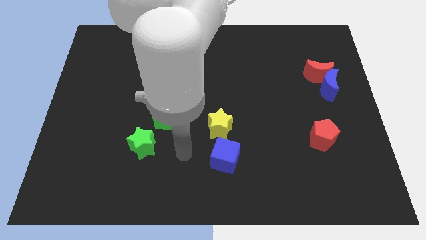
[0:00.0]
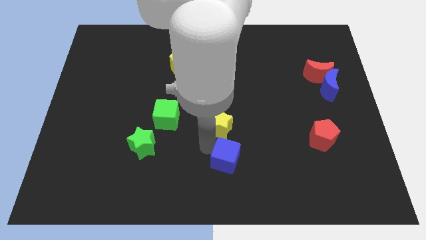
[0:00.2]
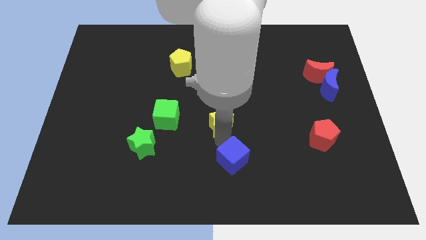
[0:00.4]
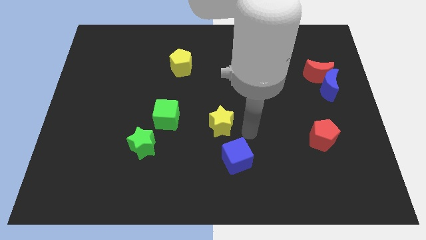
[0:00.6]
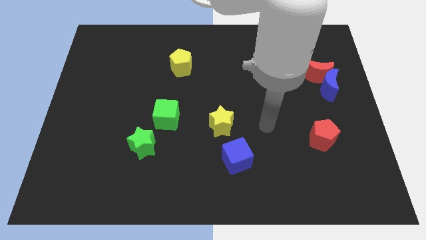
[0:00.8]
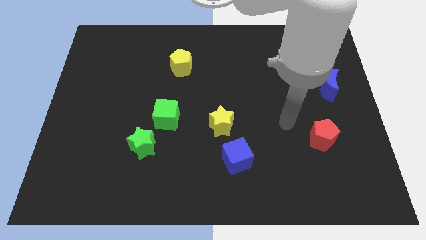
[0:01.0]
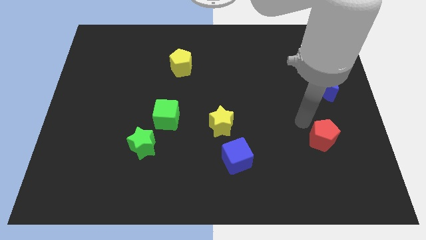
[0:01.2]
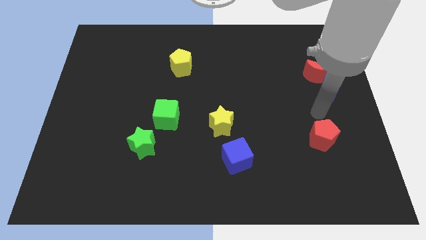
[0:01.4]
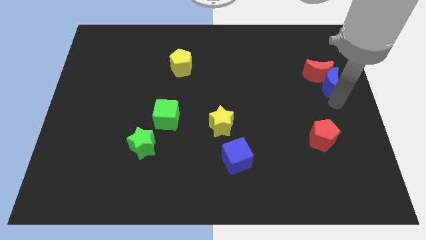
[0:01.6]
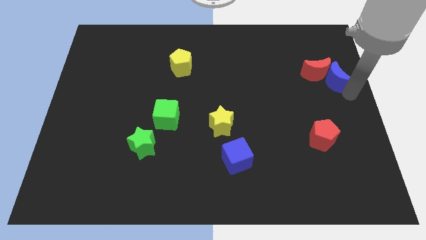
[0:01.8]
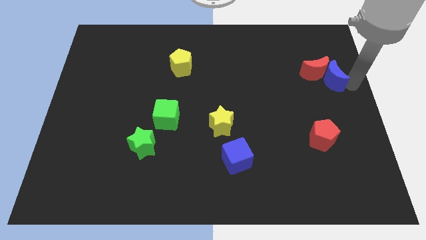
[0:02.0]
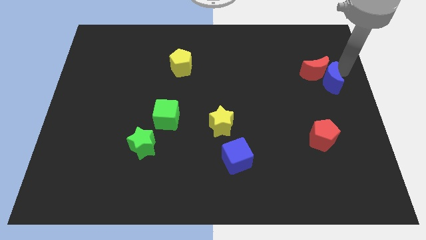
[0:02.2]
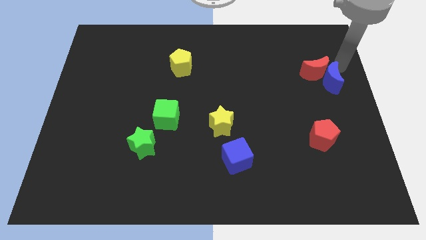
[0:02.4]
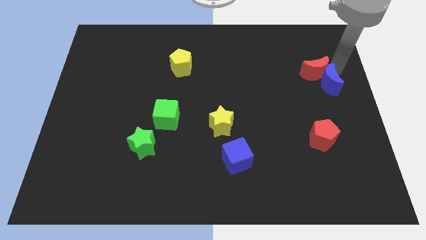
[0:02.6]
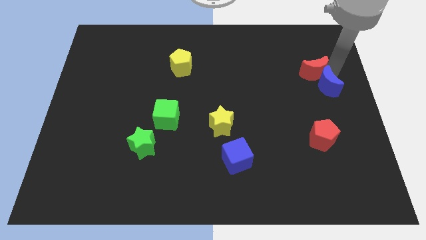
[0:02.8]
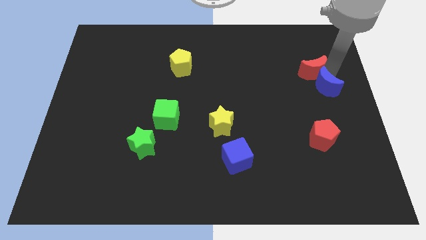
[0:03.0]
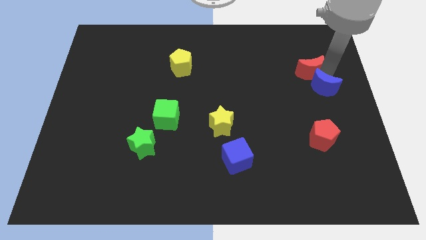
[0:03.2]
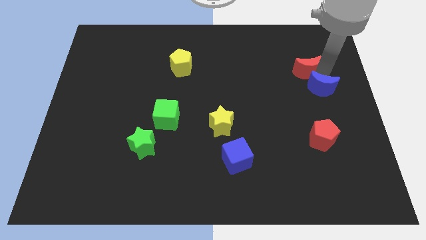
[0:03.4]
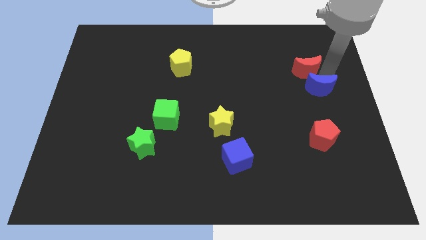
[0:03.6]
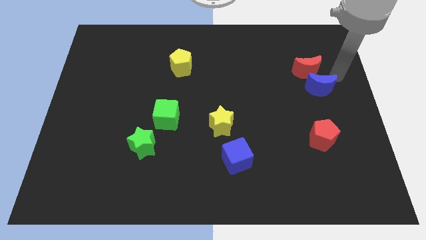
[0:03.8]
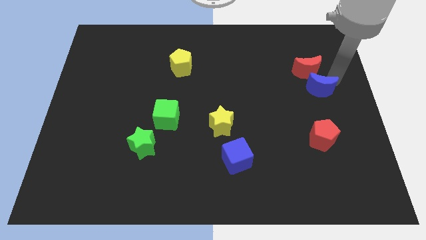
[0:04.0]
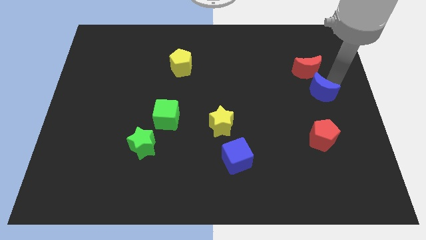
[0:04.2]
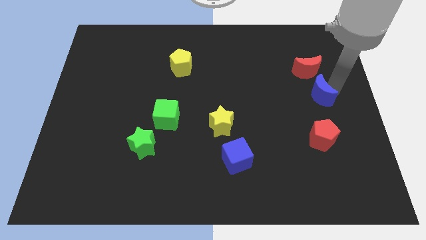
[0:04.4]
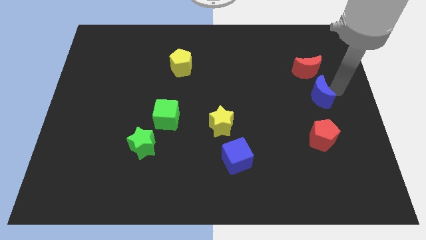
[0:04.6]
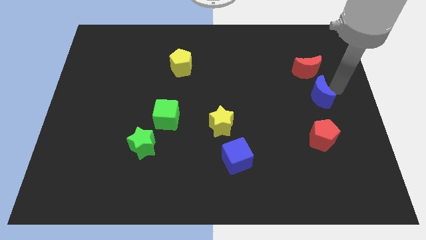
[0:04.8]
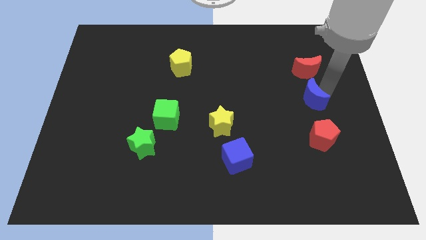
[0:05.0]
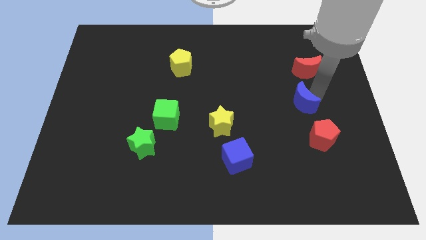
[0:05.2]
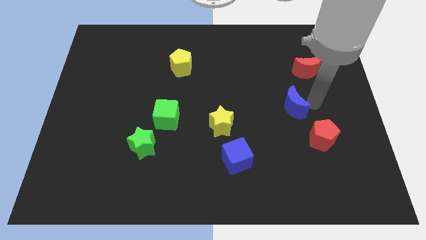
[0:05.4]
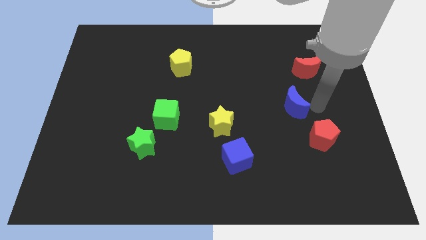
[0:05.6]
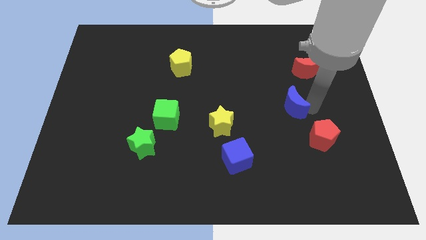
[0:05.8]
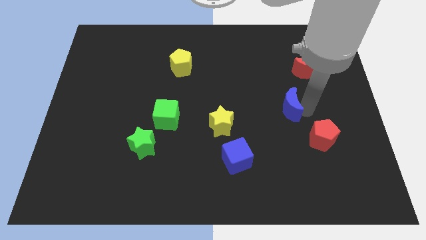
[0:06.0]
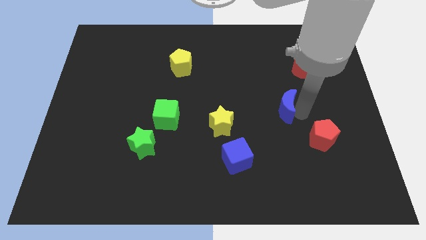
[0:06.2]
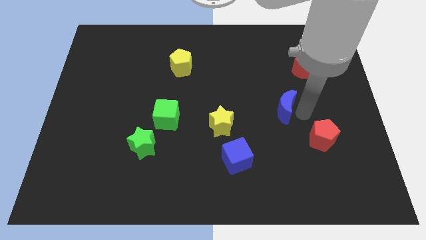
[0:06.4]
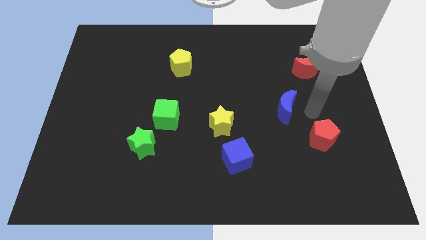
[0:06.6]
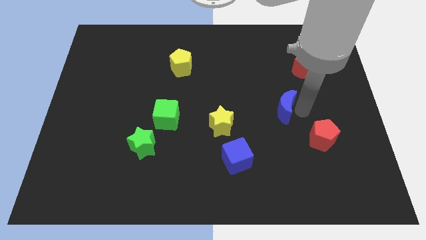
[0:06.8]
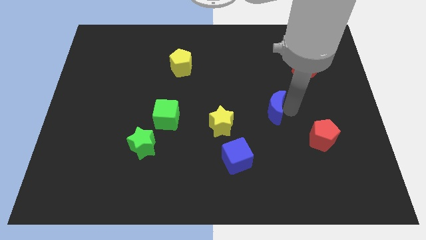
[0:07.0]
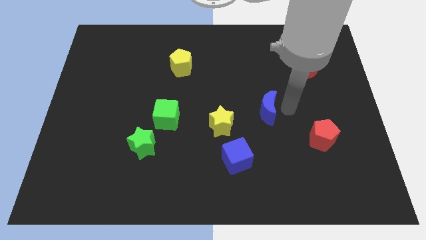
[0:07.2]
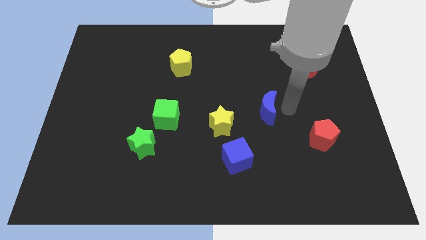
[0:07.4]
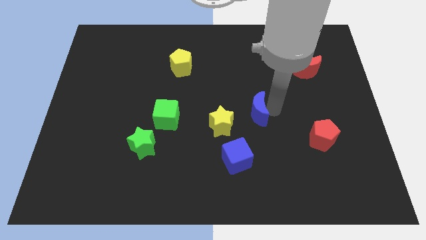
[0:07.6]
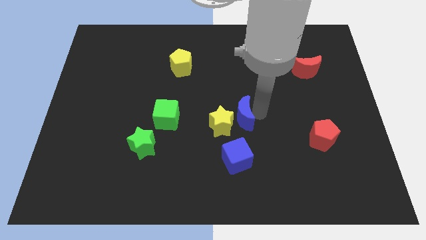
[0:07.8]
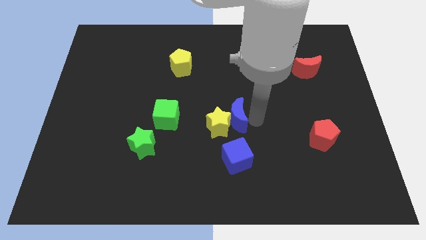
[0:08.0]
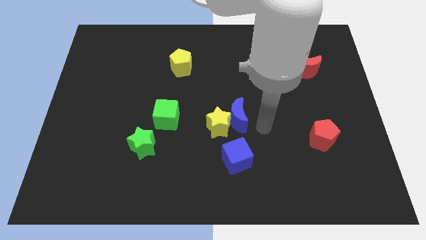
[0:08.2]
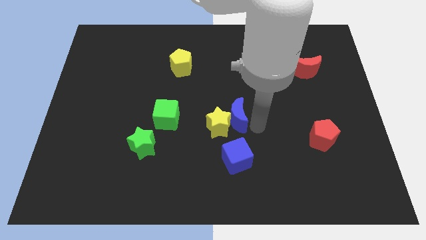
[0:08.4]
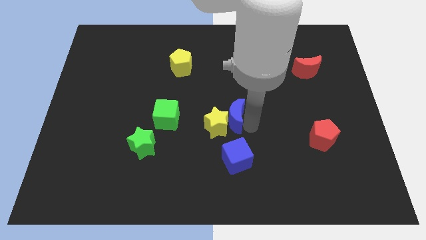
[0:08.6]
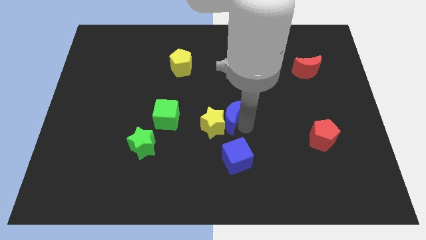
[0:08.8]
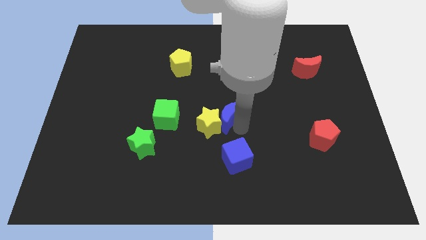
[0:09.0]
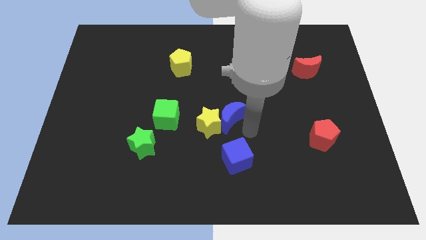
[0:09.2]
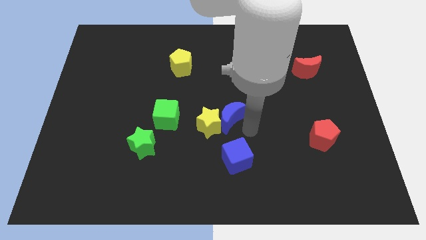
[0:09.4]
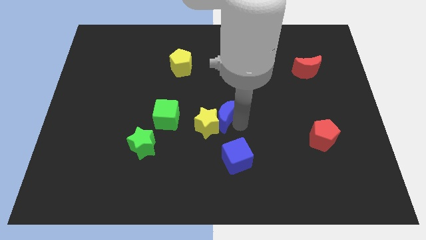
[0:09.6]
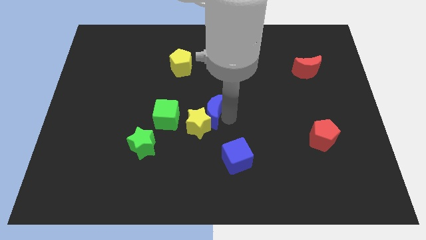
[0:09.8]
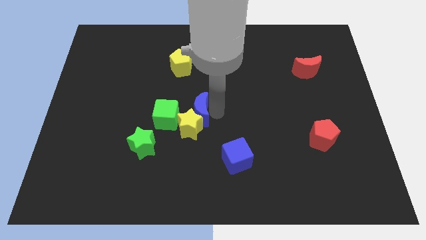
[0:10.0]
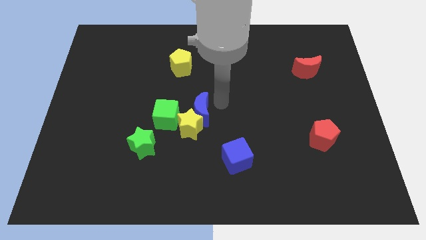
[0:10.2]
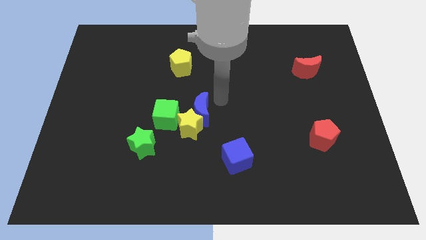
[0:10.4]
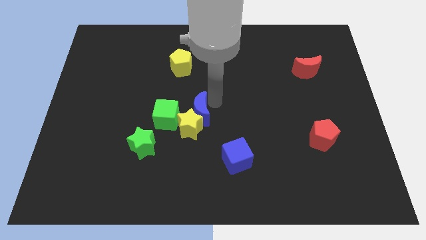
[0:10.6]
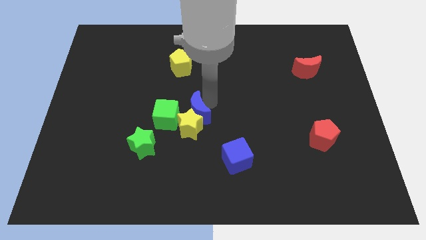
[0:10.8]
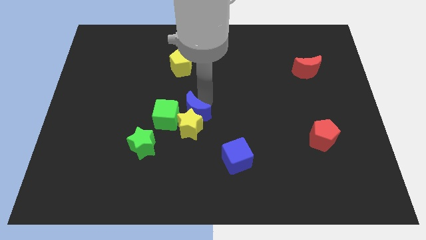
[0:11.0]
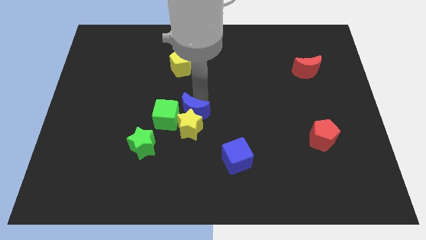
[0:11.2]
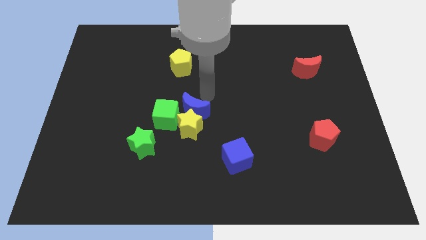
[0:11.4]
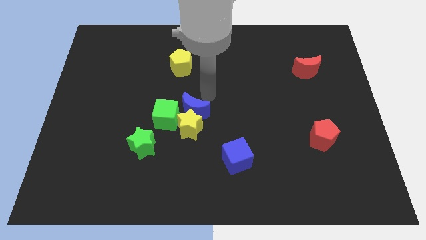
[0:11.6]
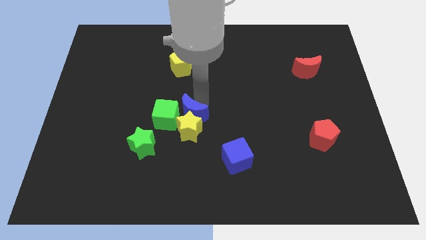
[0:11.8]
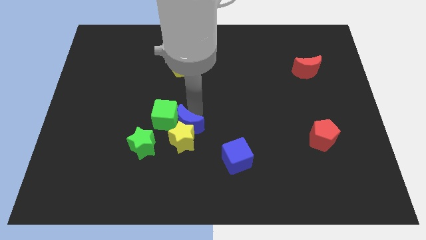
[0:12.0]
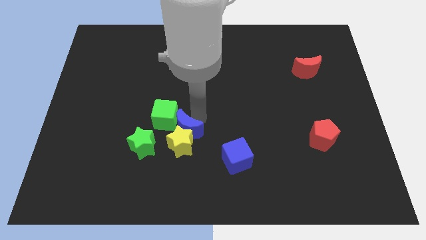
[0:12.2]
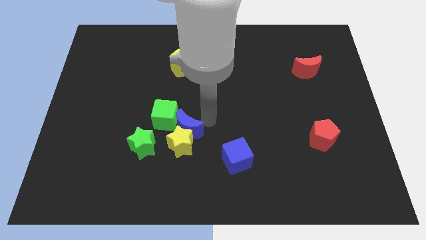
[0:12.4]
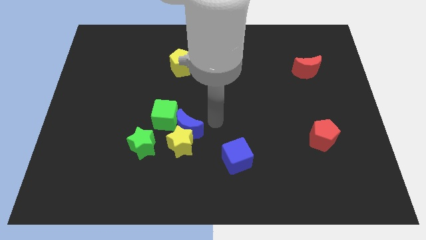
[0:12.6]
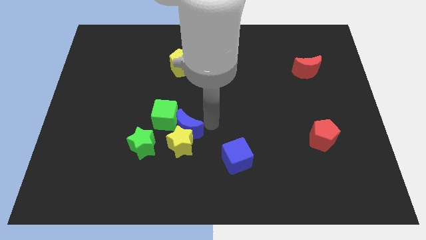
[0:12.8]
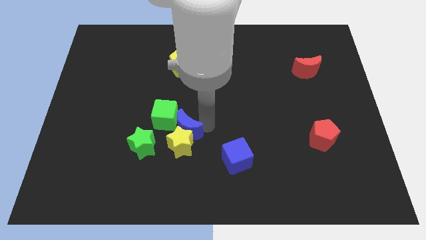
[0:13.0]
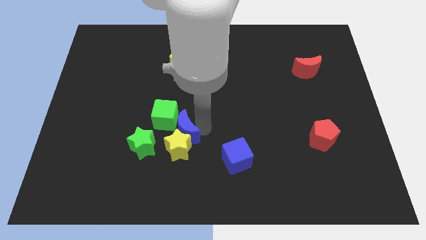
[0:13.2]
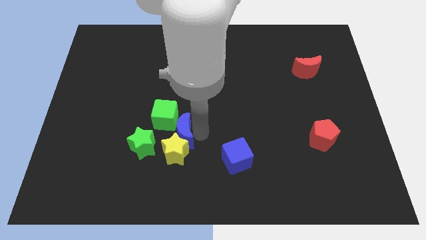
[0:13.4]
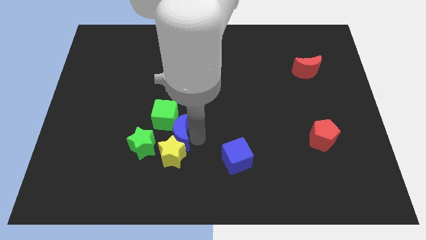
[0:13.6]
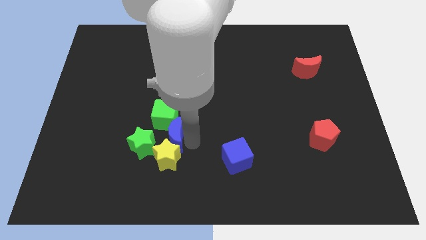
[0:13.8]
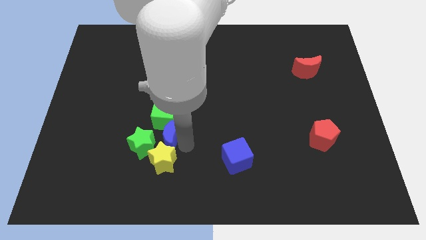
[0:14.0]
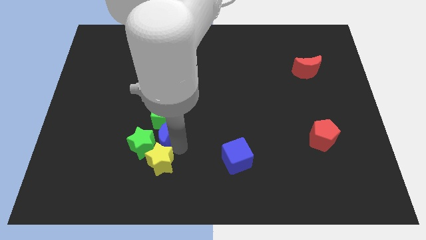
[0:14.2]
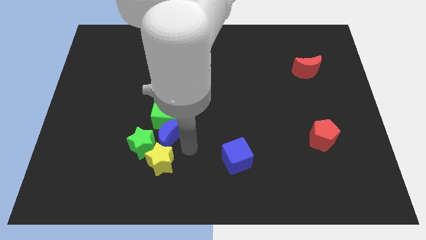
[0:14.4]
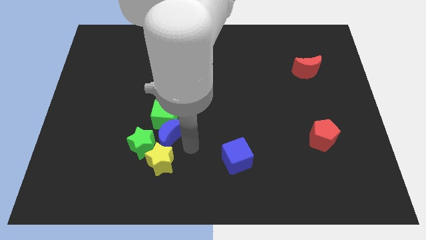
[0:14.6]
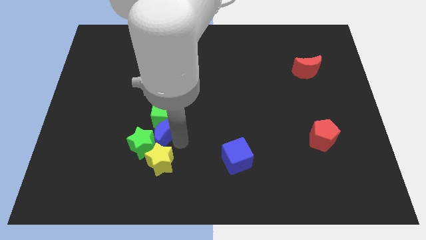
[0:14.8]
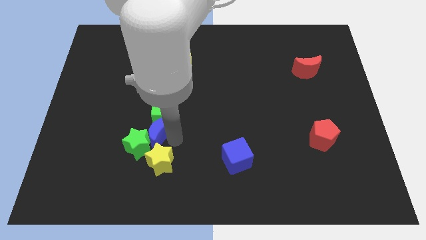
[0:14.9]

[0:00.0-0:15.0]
push the blue moon to the top side of the green star

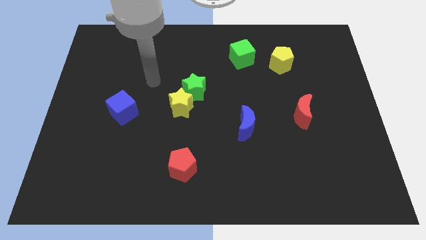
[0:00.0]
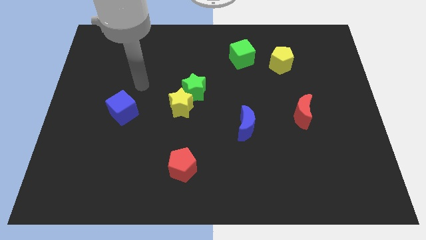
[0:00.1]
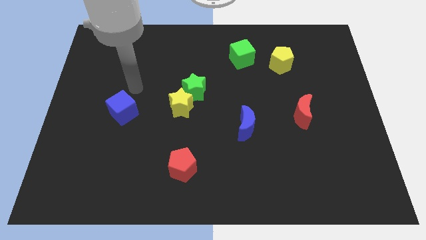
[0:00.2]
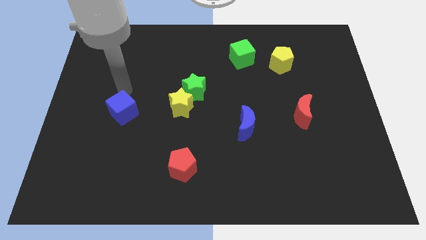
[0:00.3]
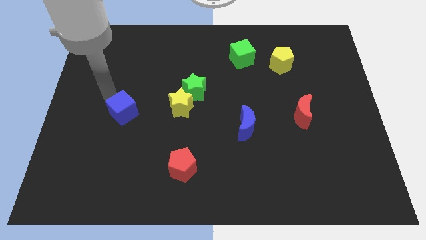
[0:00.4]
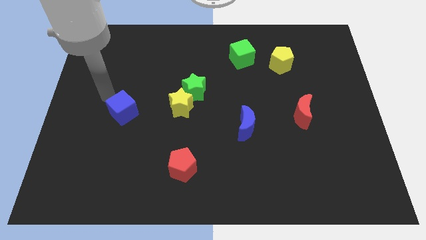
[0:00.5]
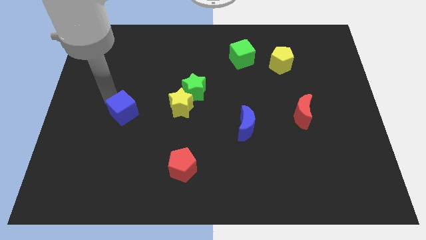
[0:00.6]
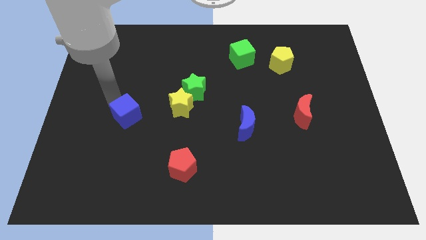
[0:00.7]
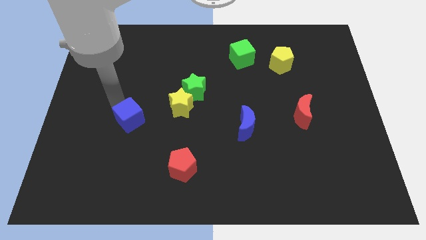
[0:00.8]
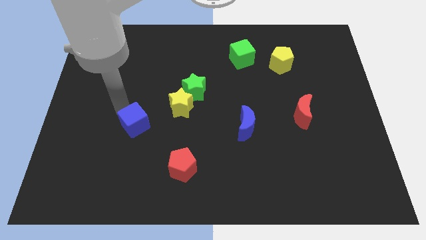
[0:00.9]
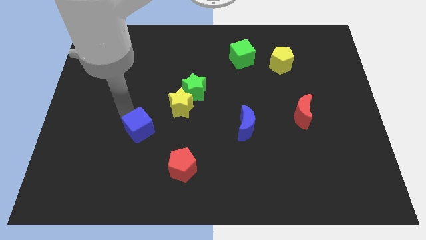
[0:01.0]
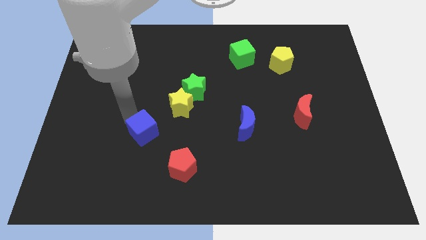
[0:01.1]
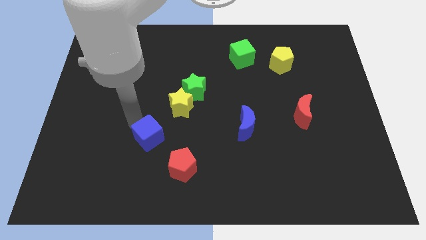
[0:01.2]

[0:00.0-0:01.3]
put the blue cube to the top left of the red pentagon
